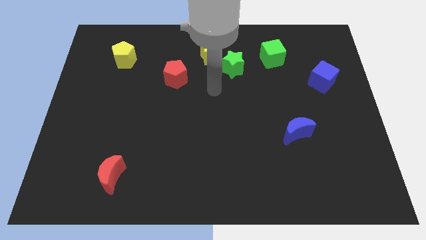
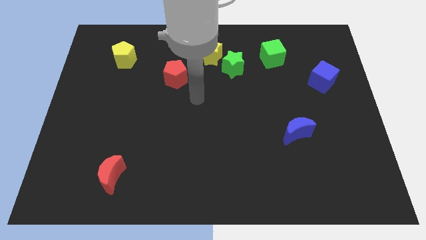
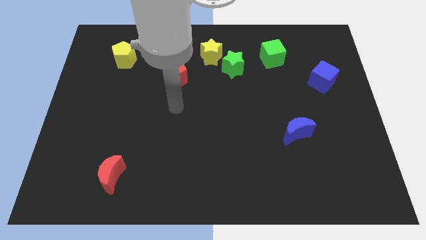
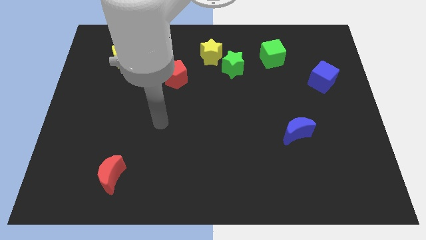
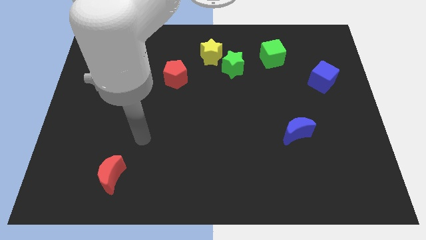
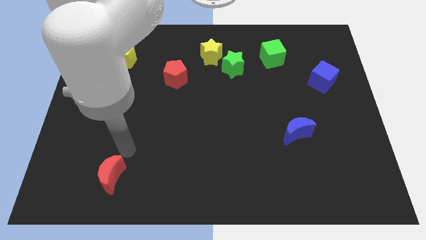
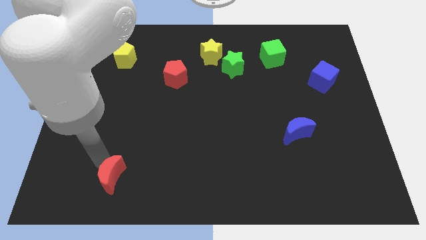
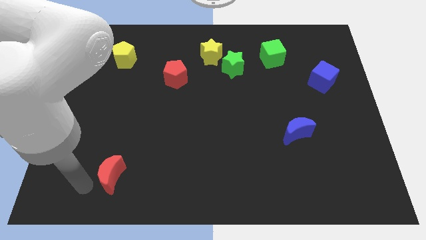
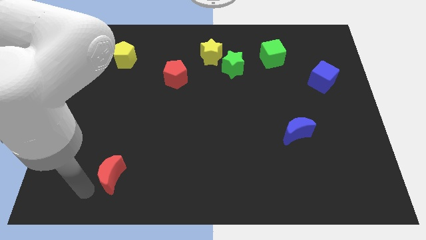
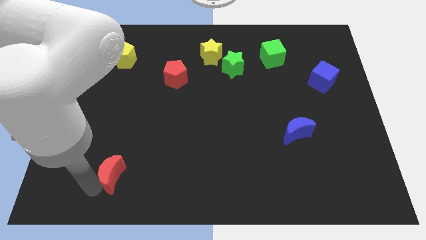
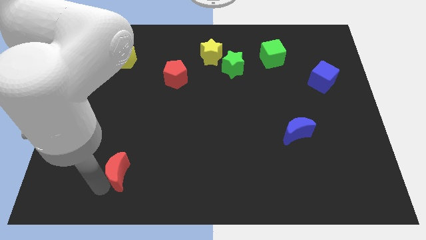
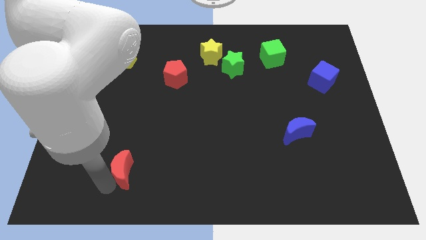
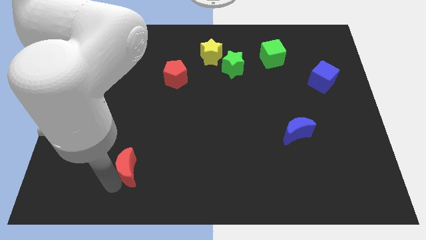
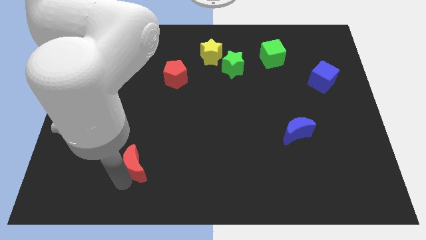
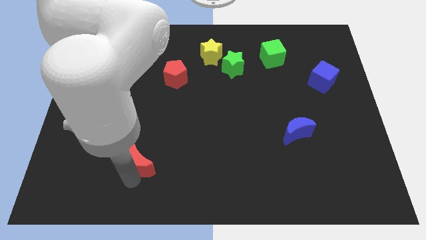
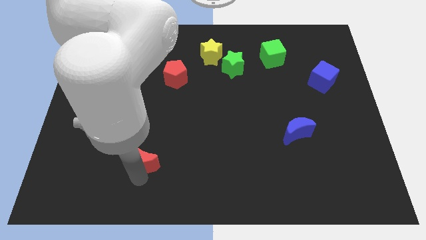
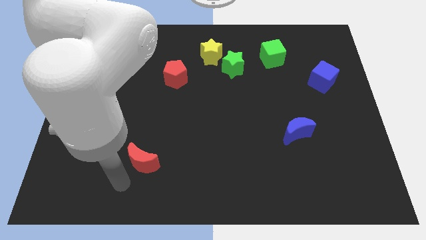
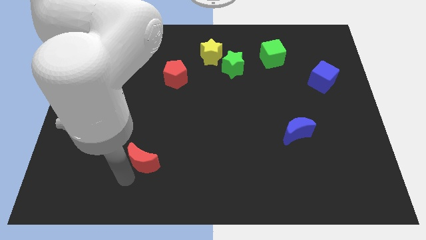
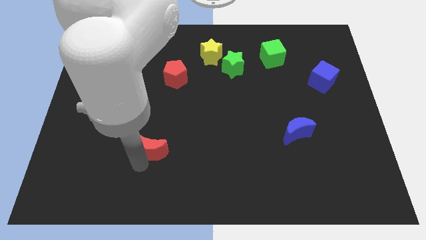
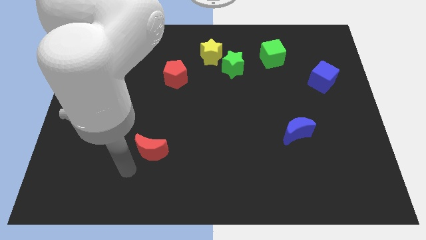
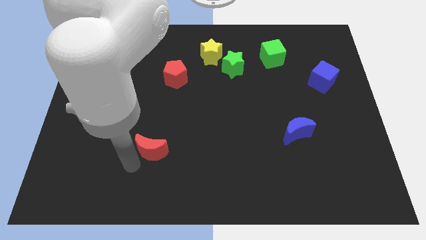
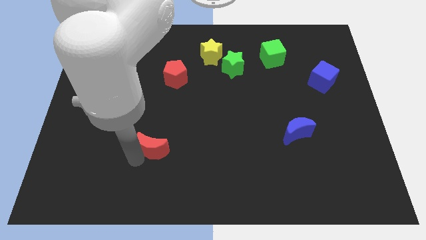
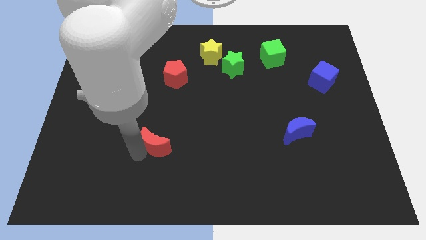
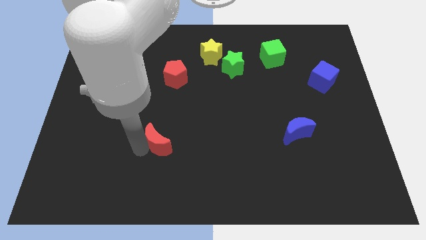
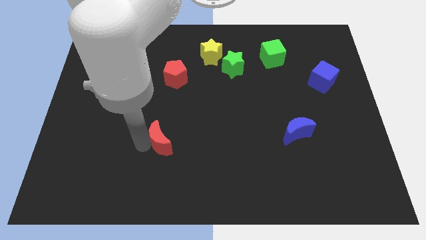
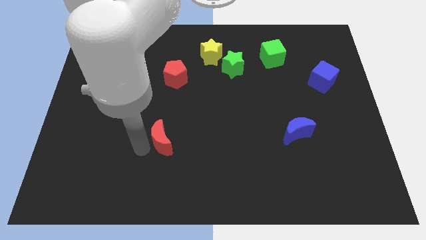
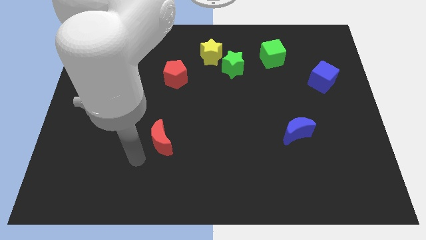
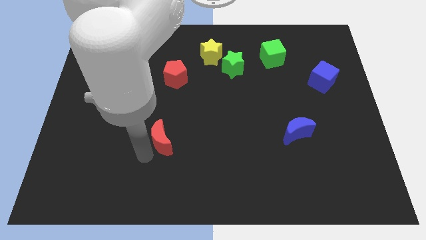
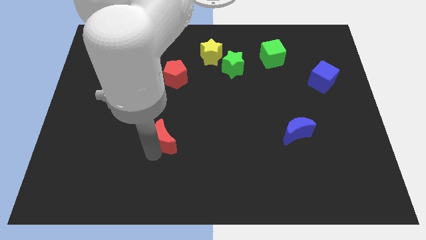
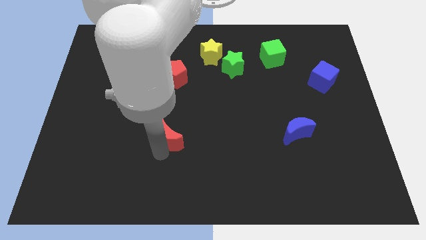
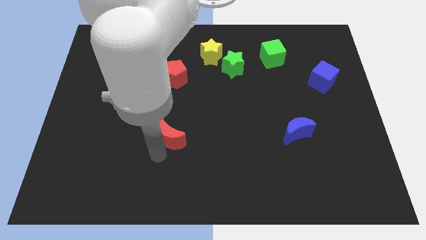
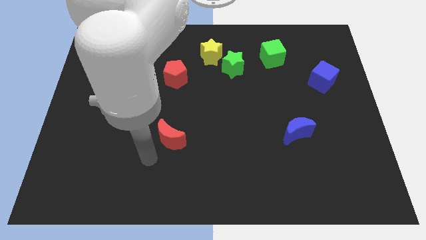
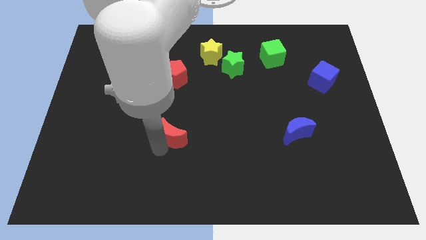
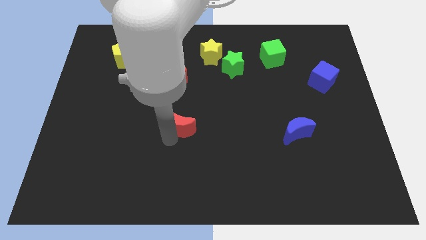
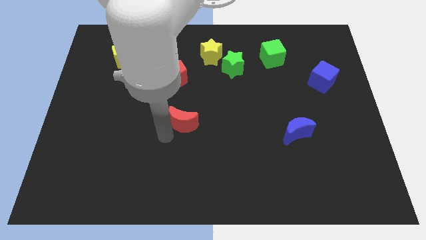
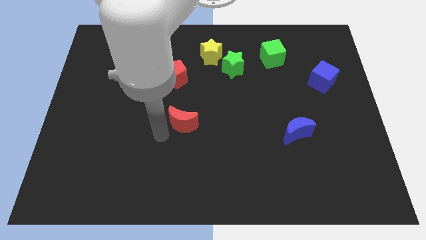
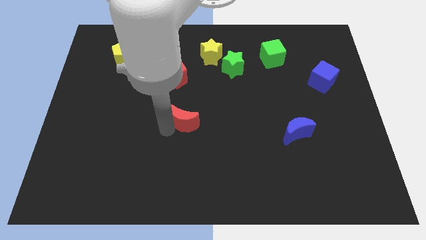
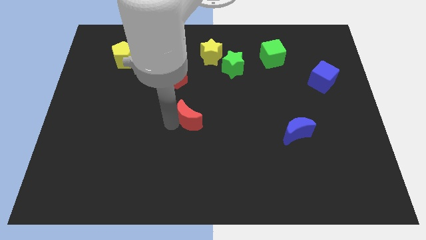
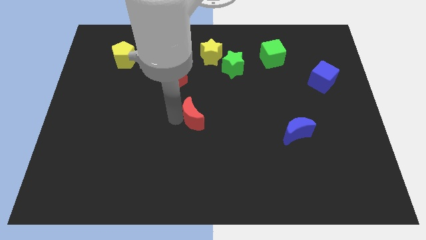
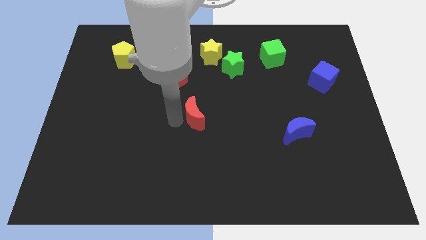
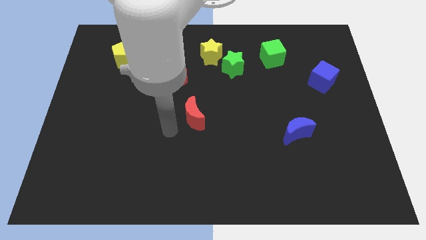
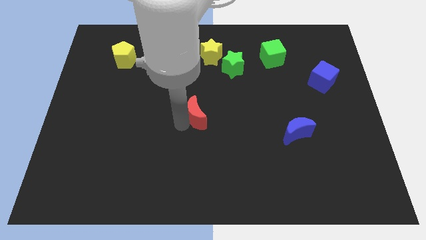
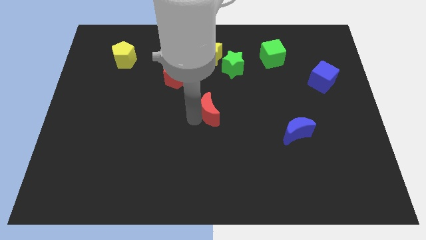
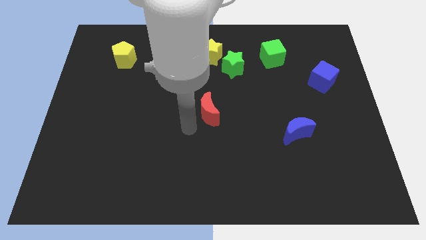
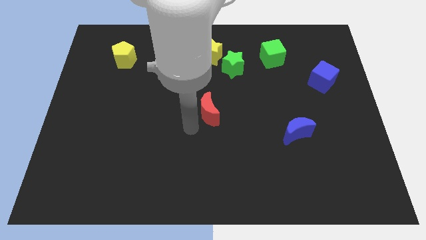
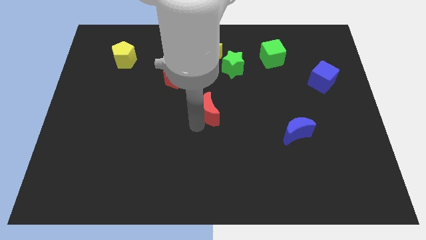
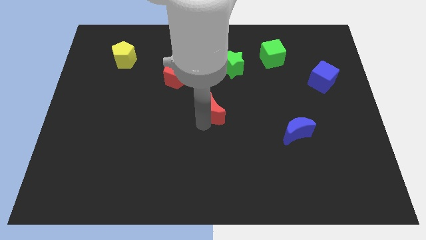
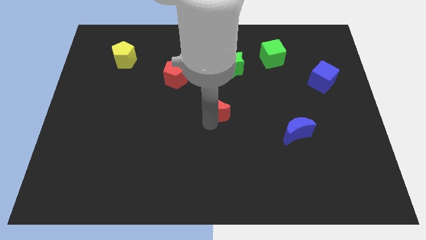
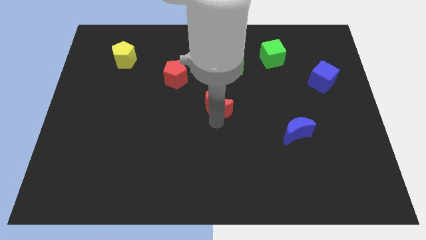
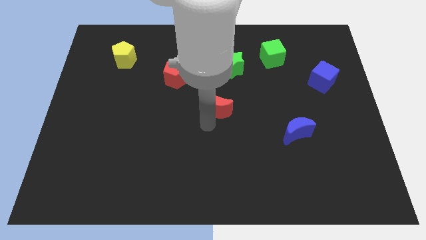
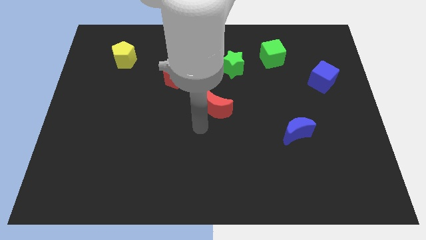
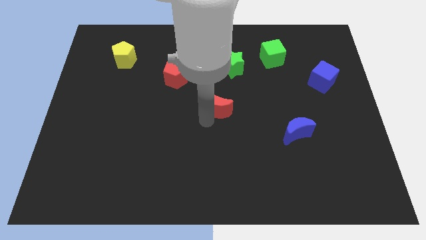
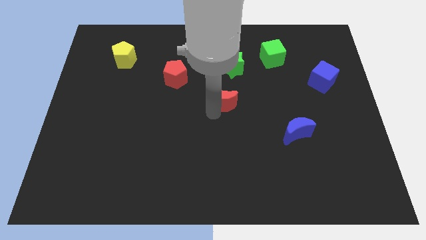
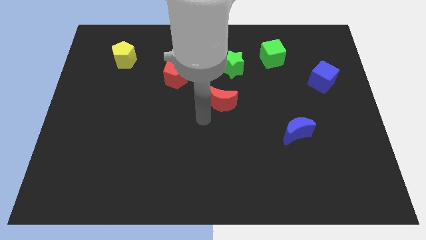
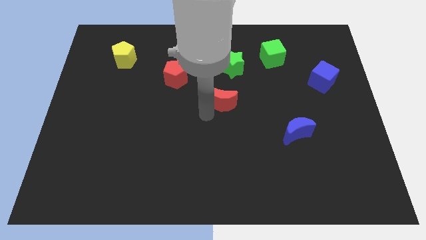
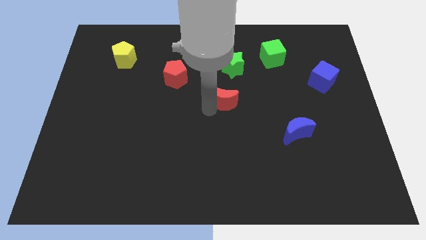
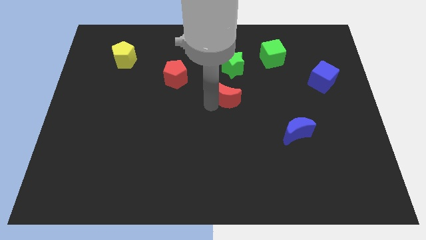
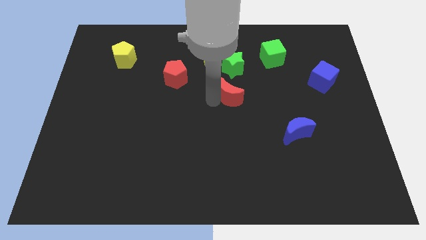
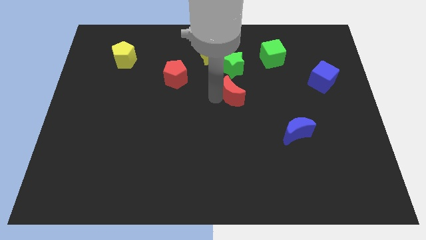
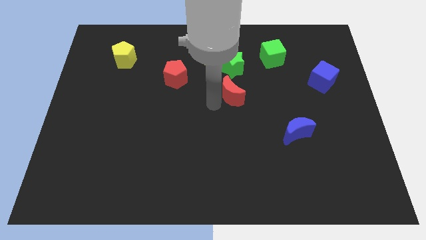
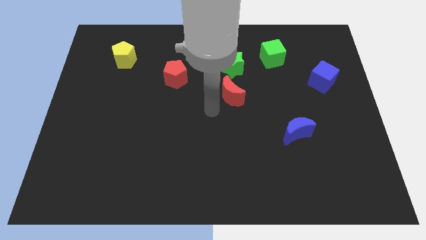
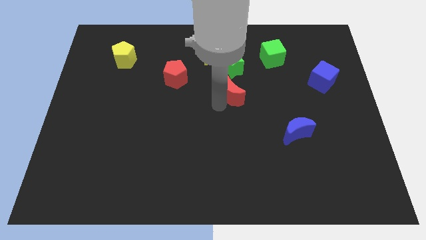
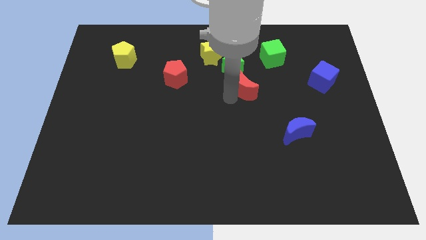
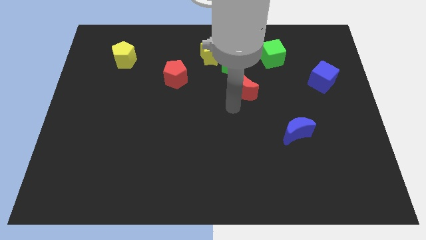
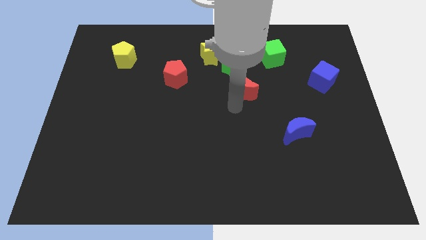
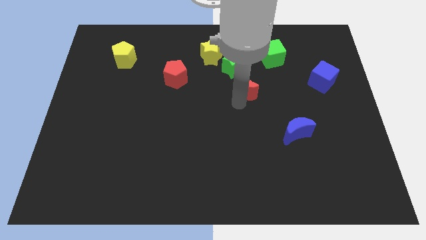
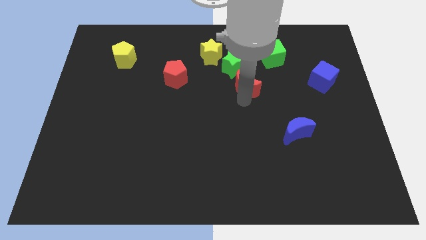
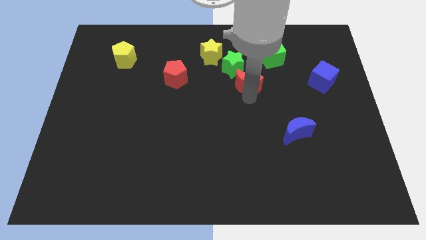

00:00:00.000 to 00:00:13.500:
put the red moon to the bottom left side of the green cube

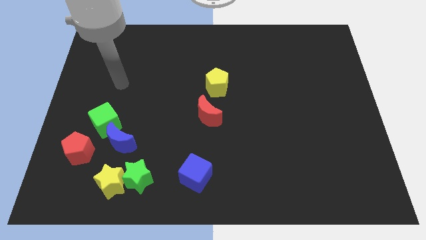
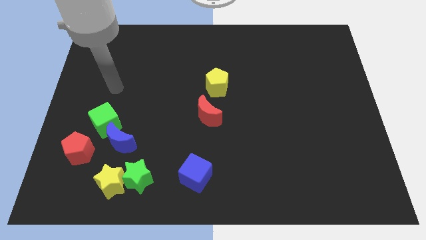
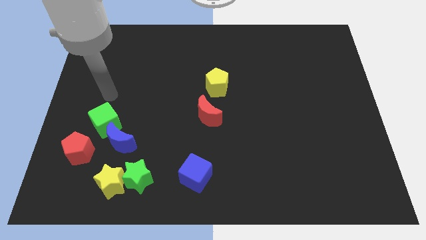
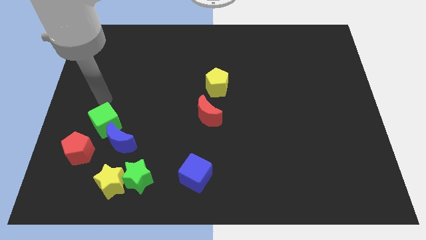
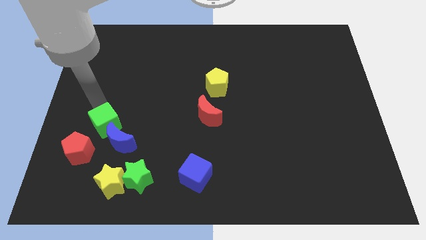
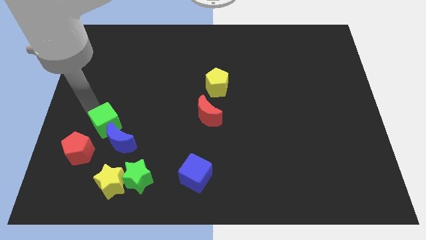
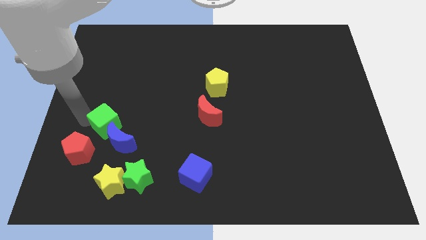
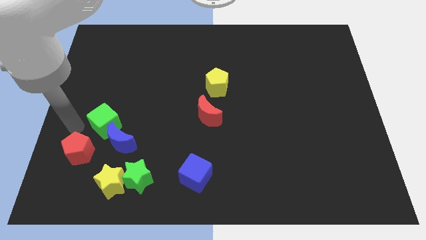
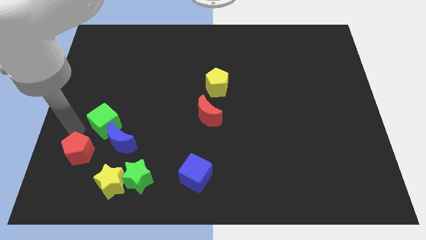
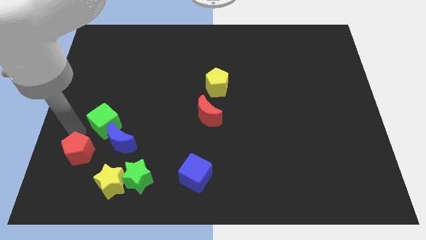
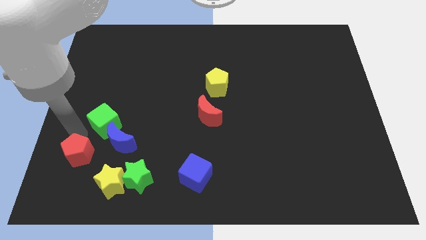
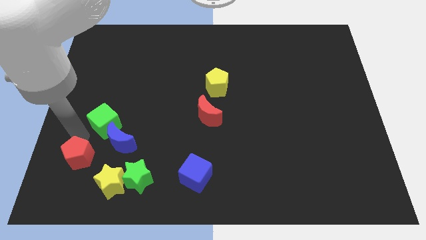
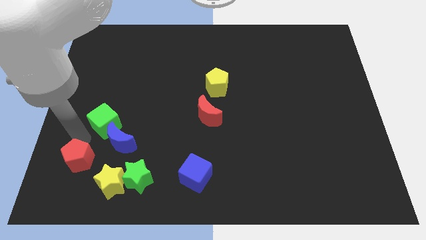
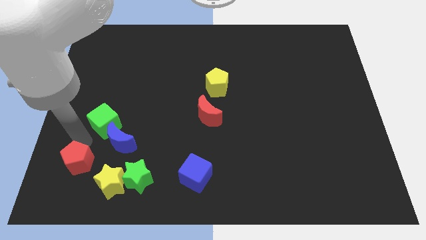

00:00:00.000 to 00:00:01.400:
put the red pentagon to the left side of the green star
